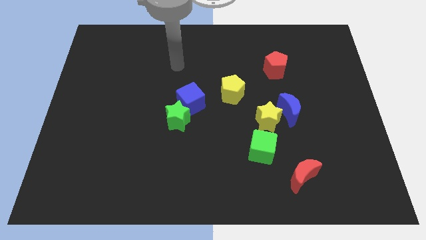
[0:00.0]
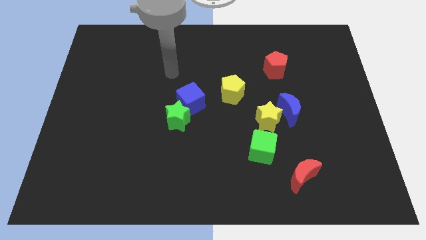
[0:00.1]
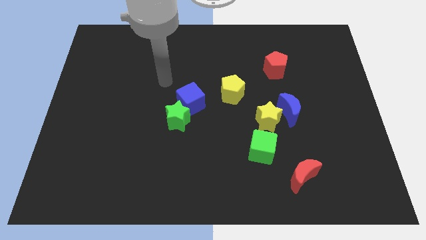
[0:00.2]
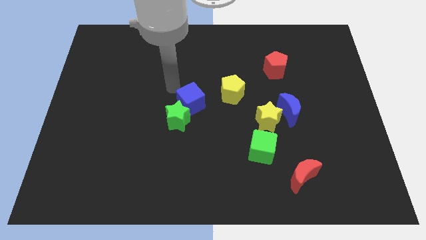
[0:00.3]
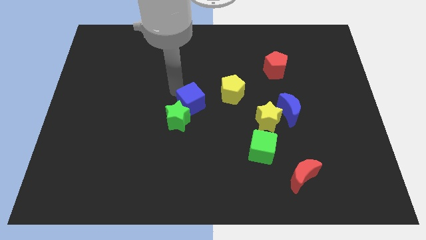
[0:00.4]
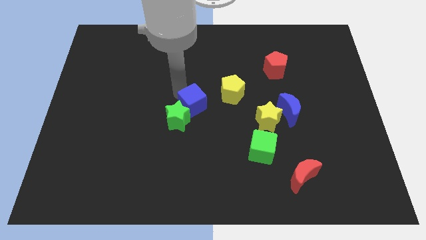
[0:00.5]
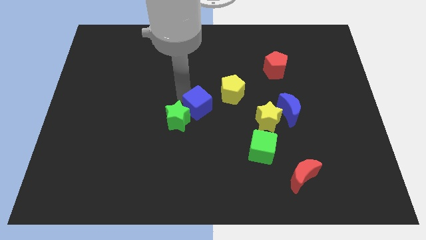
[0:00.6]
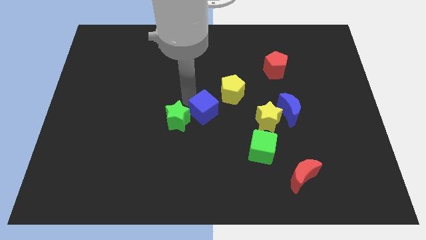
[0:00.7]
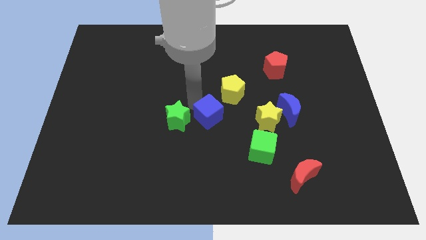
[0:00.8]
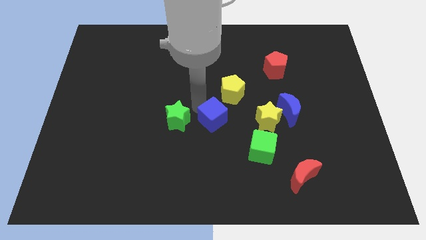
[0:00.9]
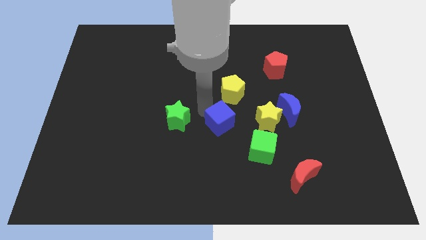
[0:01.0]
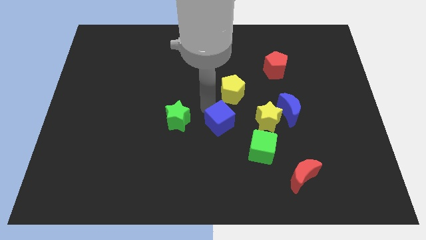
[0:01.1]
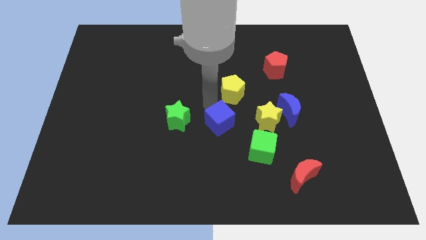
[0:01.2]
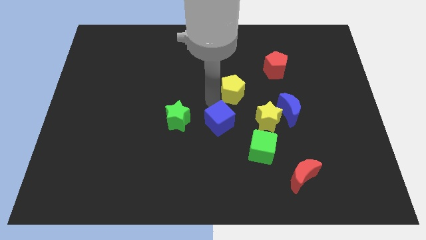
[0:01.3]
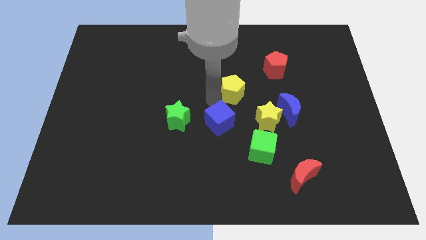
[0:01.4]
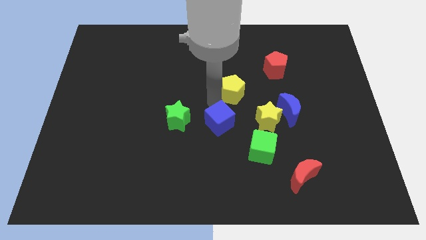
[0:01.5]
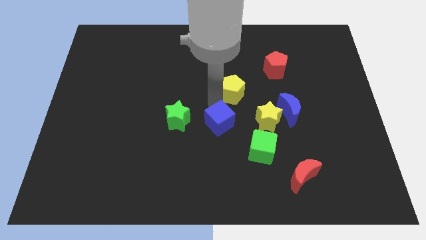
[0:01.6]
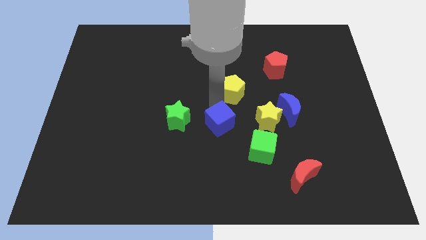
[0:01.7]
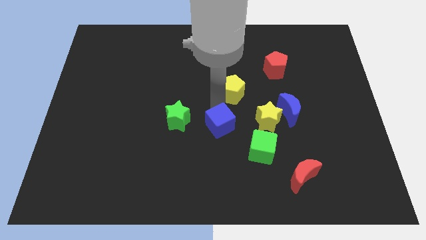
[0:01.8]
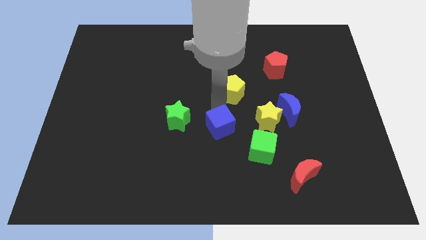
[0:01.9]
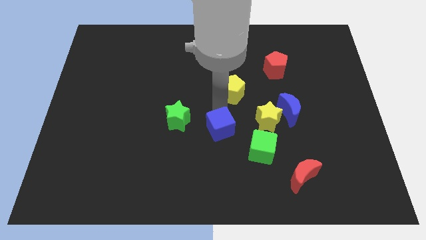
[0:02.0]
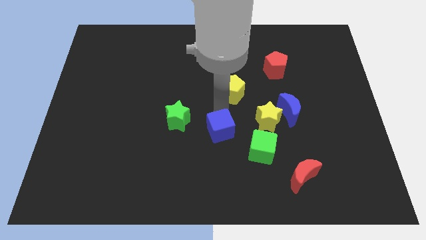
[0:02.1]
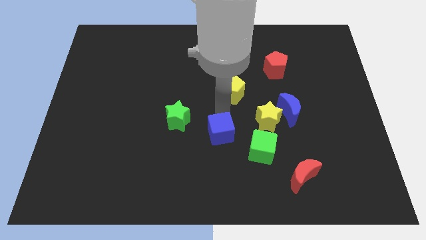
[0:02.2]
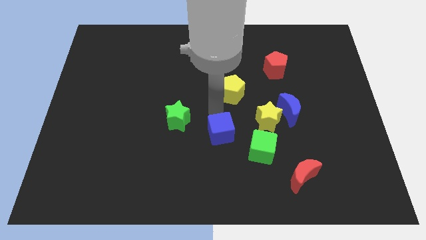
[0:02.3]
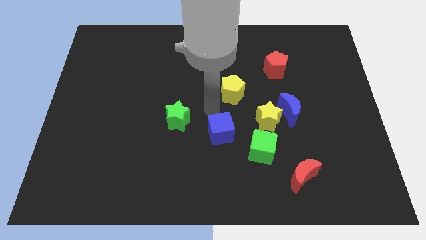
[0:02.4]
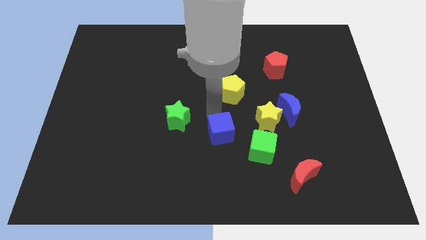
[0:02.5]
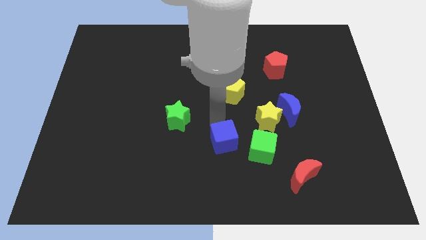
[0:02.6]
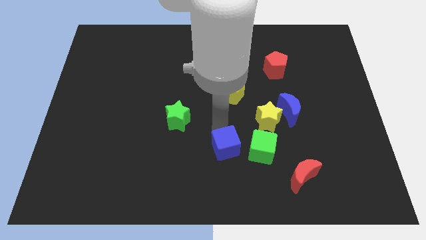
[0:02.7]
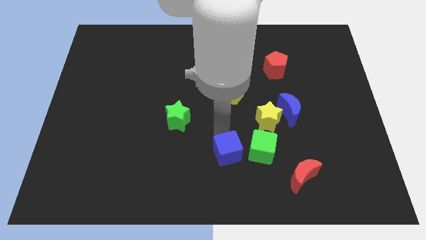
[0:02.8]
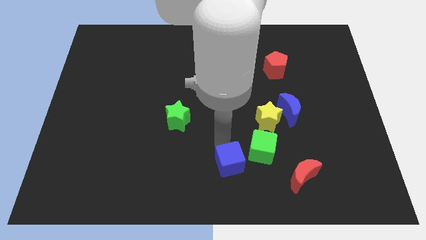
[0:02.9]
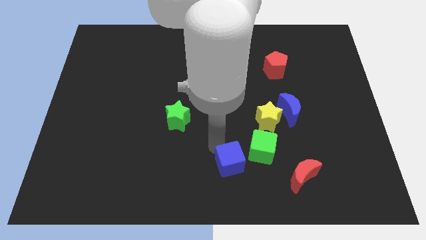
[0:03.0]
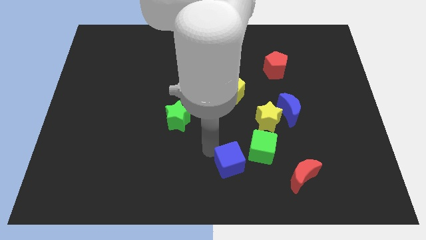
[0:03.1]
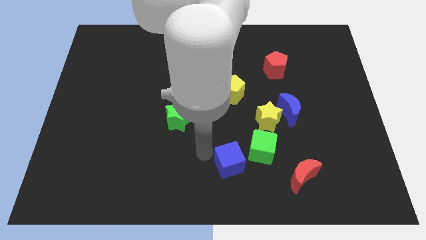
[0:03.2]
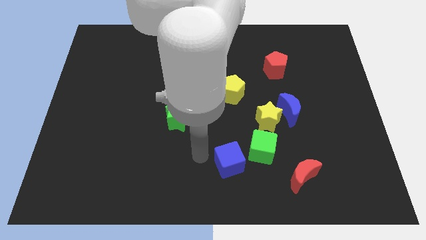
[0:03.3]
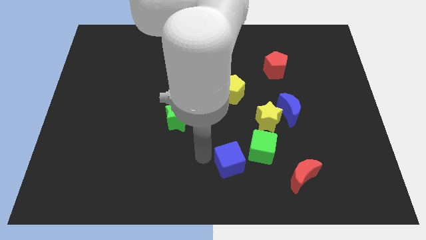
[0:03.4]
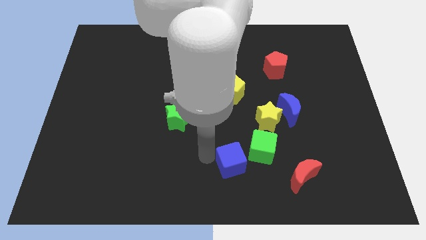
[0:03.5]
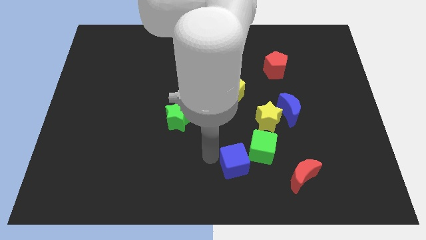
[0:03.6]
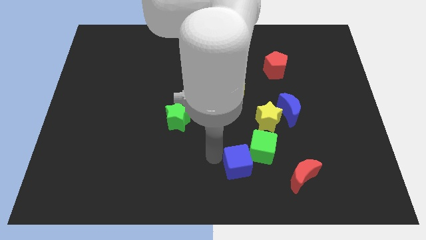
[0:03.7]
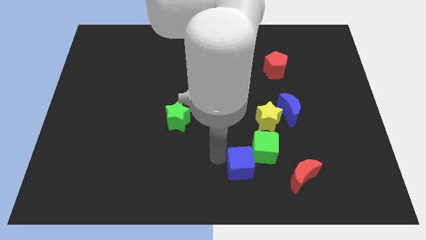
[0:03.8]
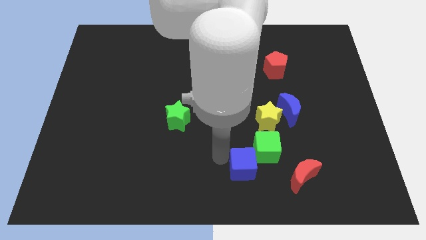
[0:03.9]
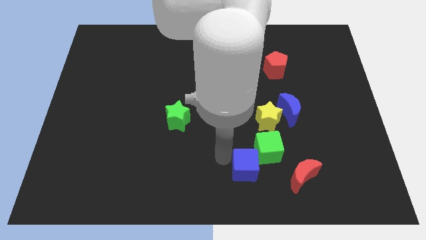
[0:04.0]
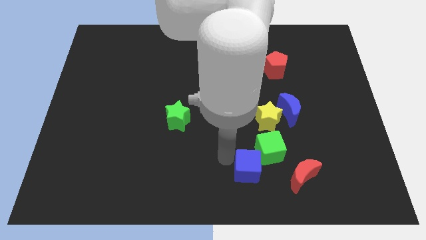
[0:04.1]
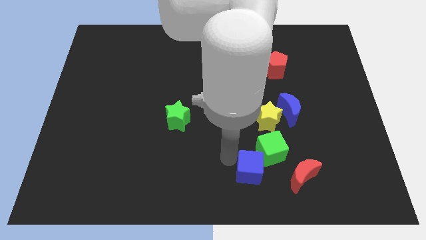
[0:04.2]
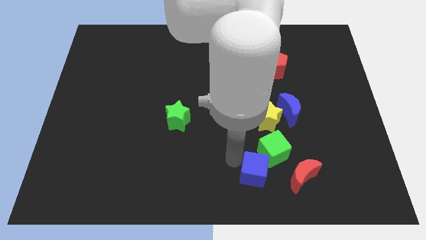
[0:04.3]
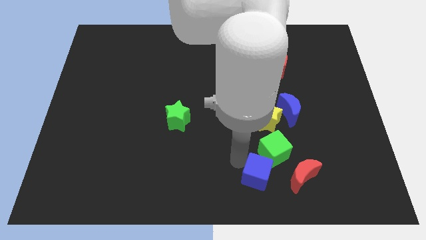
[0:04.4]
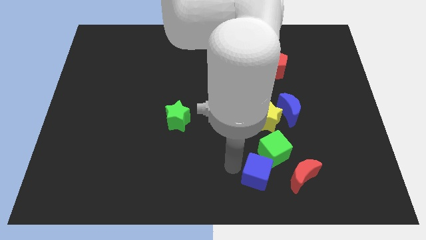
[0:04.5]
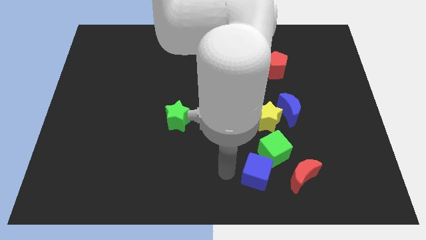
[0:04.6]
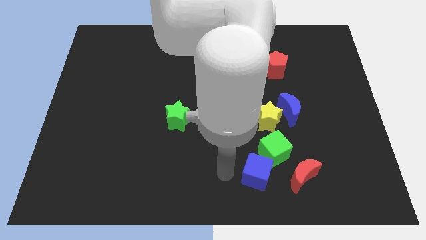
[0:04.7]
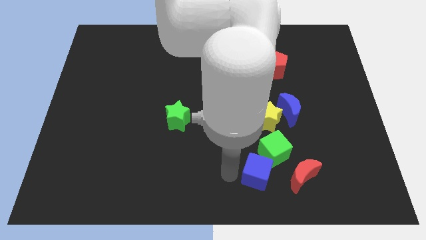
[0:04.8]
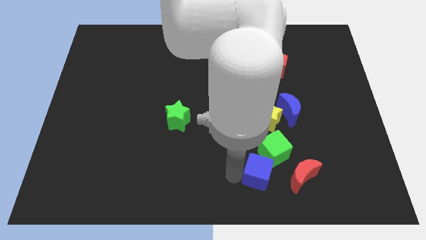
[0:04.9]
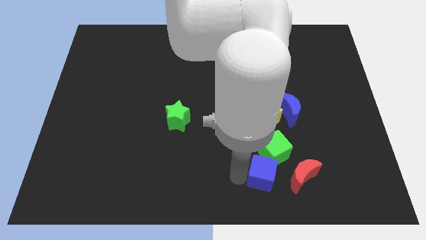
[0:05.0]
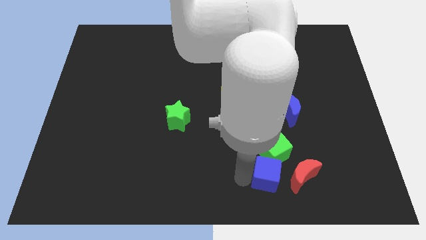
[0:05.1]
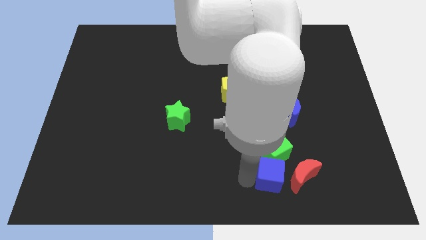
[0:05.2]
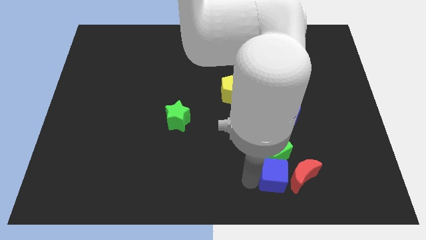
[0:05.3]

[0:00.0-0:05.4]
push the blue cube close to the red moon

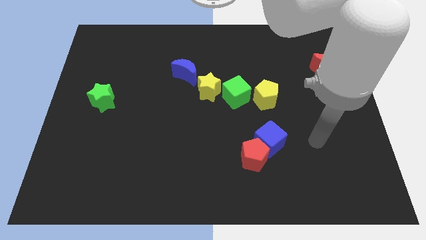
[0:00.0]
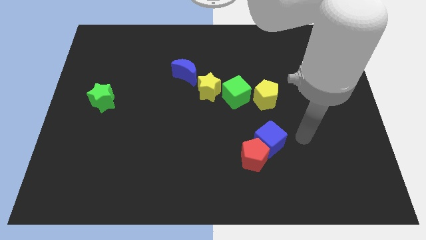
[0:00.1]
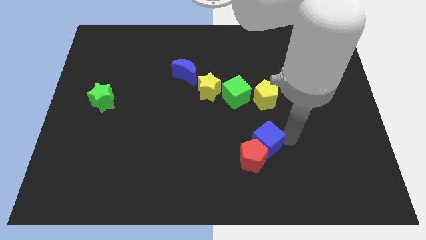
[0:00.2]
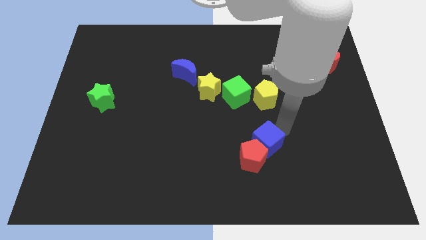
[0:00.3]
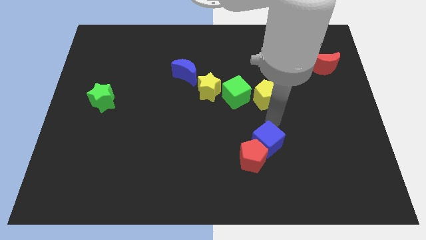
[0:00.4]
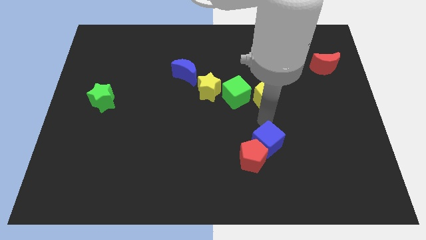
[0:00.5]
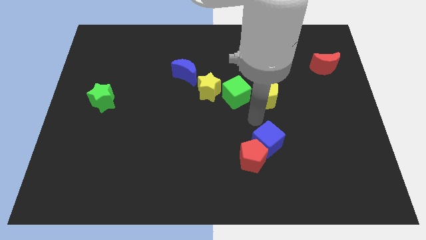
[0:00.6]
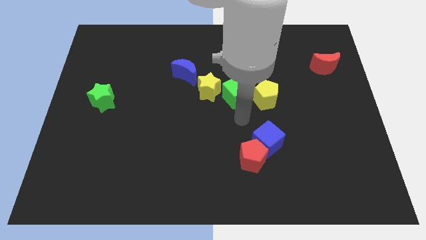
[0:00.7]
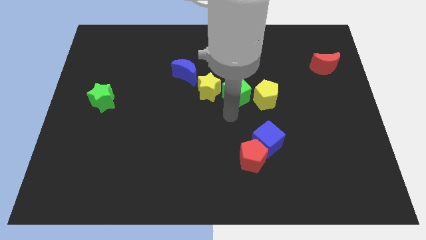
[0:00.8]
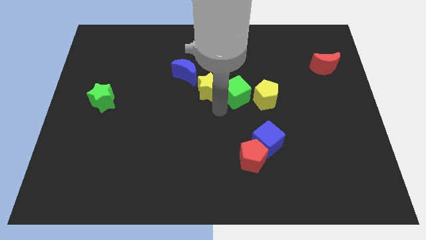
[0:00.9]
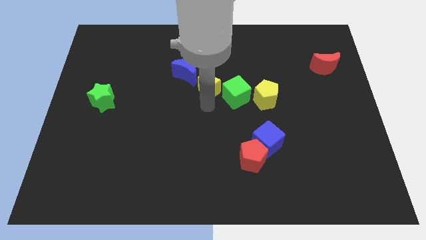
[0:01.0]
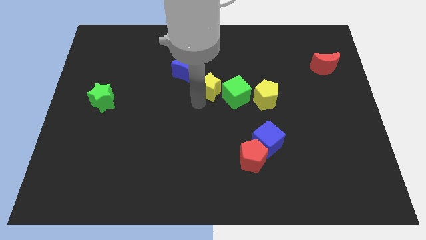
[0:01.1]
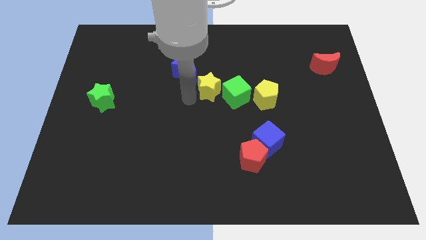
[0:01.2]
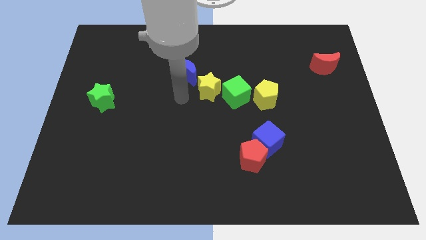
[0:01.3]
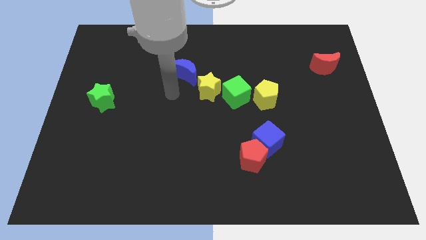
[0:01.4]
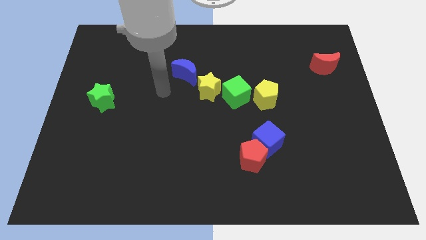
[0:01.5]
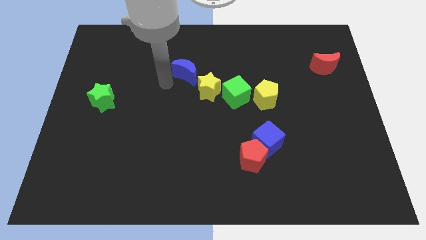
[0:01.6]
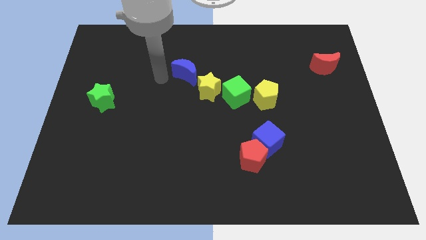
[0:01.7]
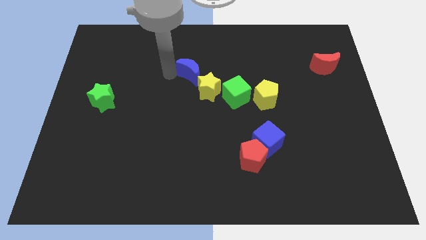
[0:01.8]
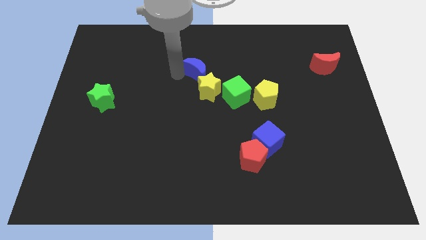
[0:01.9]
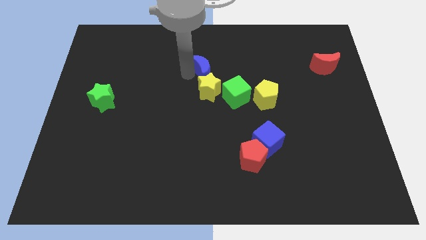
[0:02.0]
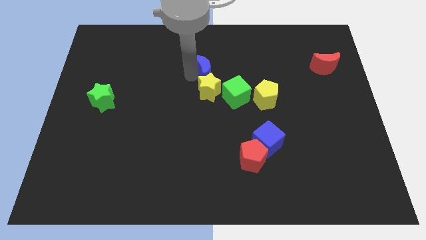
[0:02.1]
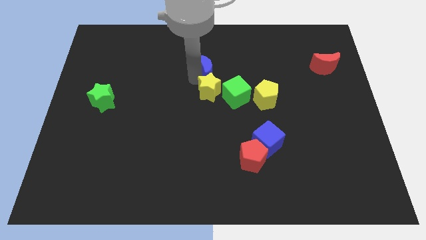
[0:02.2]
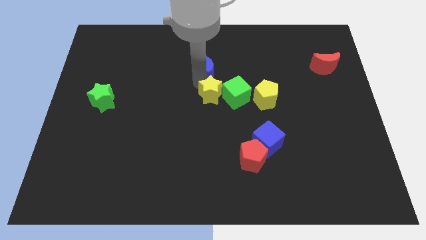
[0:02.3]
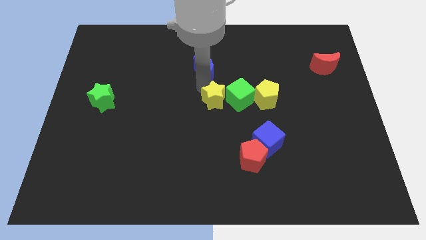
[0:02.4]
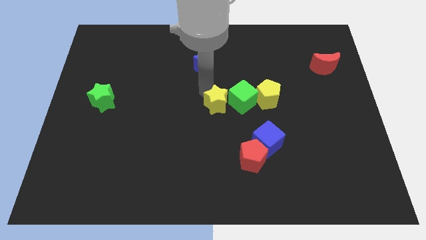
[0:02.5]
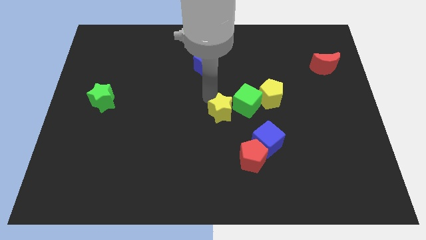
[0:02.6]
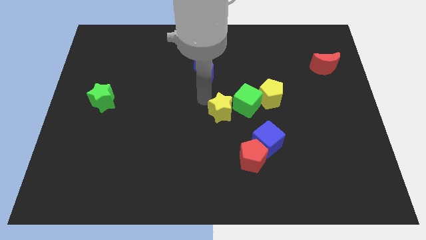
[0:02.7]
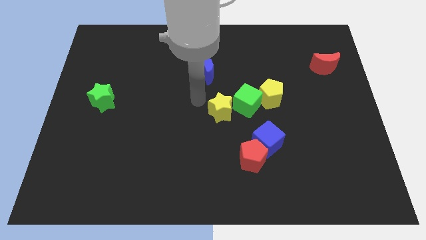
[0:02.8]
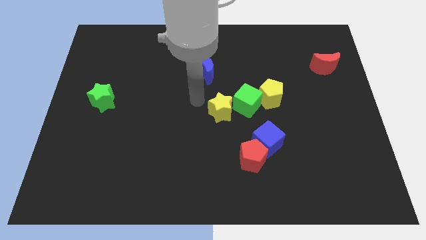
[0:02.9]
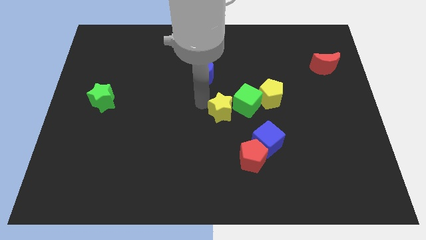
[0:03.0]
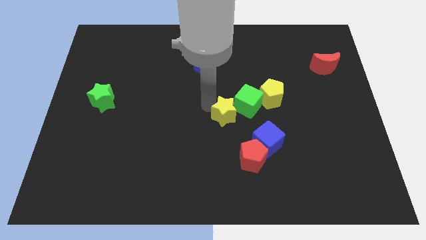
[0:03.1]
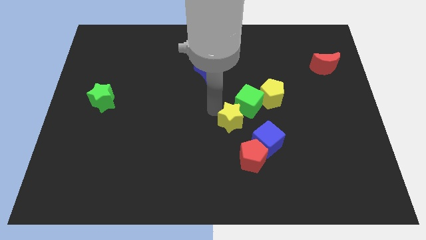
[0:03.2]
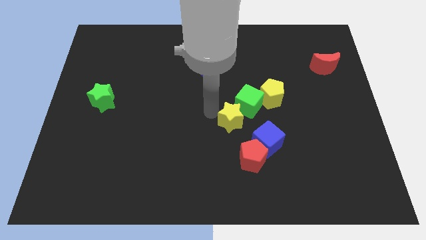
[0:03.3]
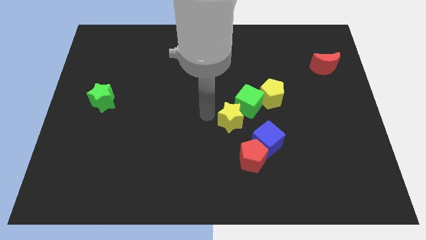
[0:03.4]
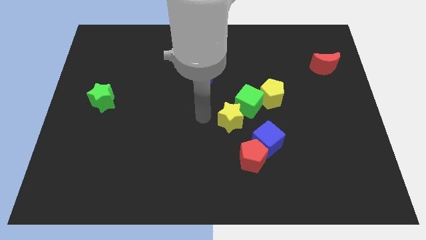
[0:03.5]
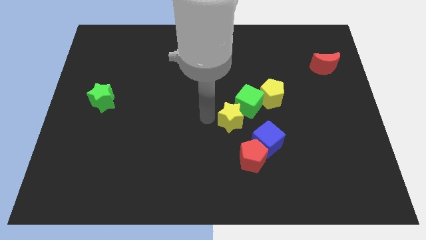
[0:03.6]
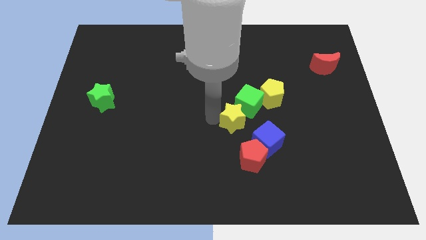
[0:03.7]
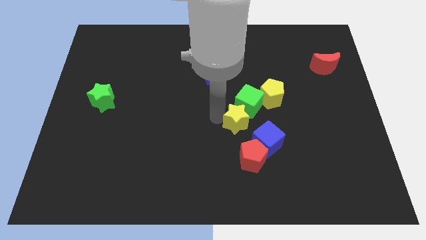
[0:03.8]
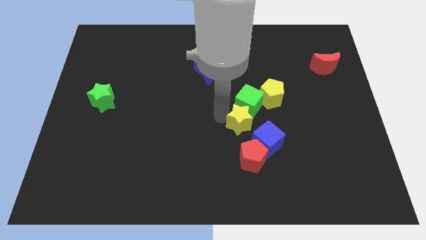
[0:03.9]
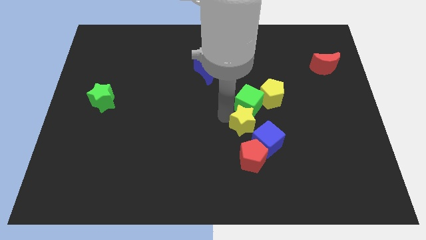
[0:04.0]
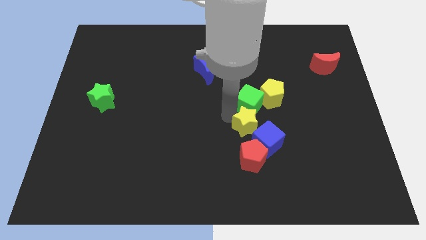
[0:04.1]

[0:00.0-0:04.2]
put the yellow star next to the blue cube
